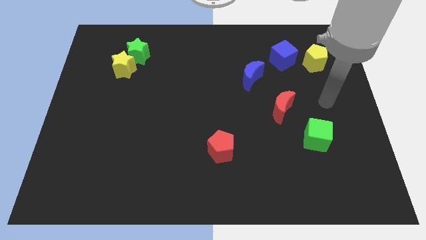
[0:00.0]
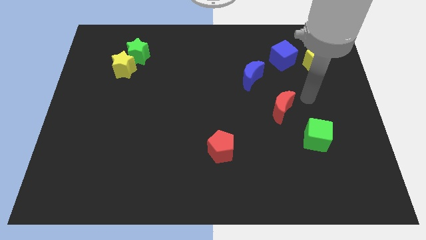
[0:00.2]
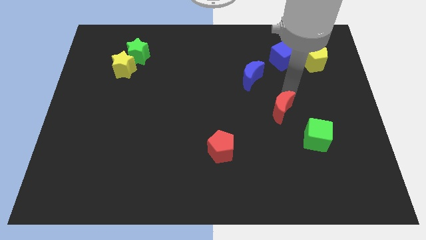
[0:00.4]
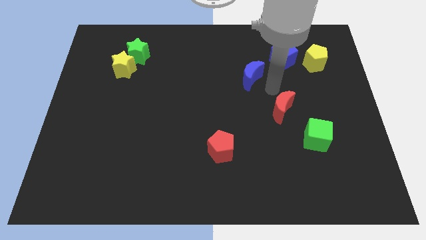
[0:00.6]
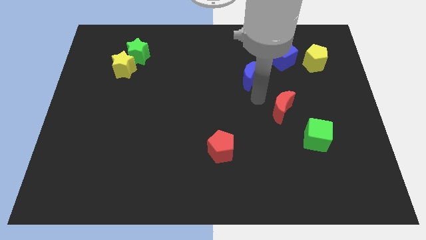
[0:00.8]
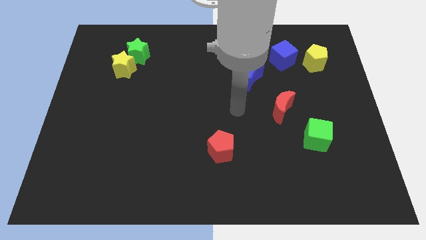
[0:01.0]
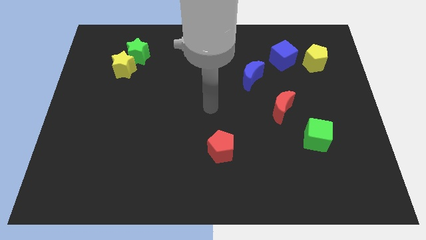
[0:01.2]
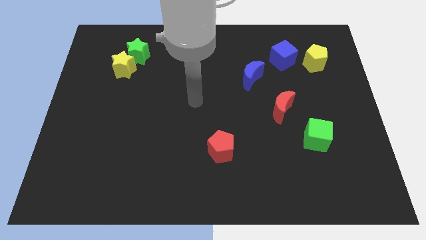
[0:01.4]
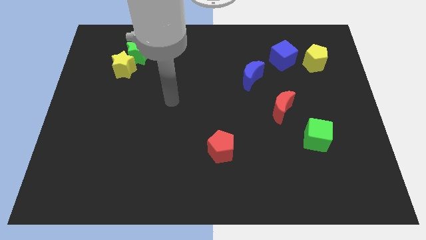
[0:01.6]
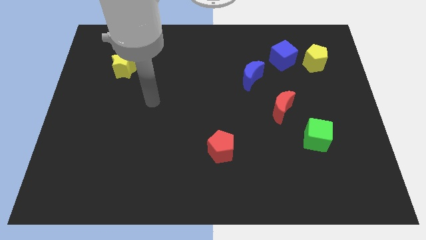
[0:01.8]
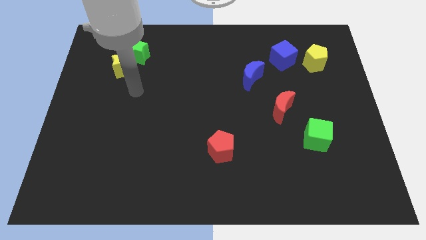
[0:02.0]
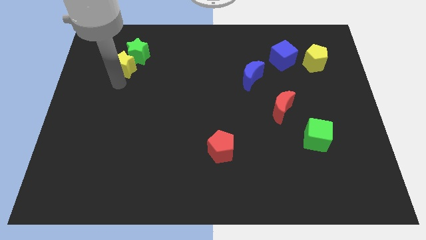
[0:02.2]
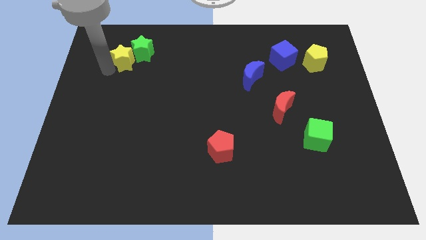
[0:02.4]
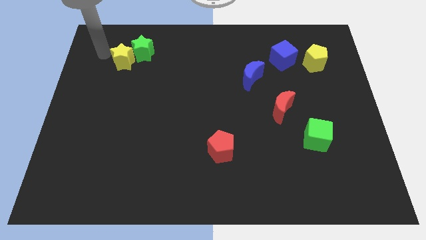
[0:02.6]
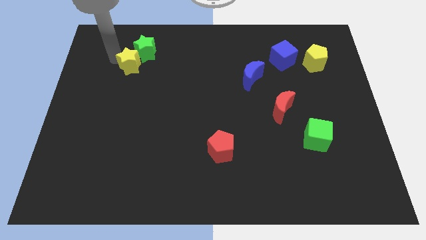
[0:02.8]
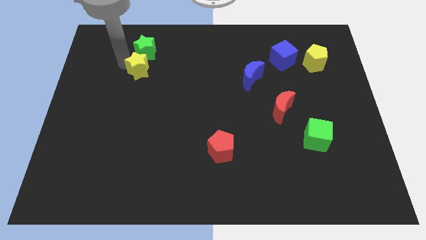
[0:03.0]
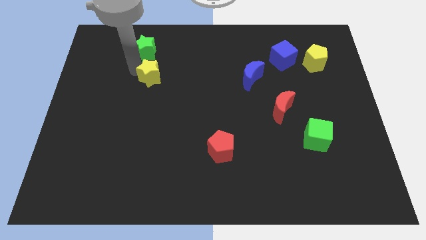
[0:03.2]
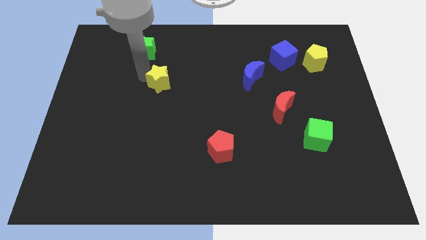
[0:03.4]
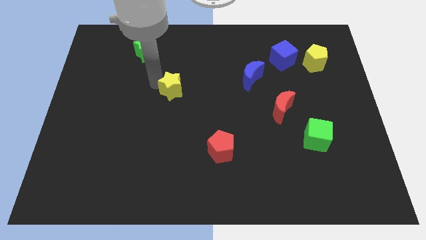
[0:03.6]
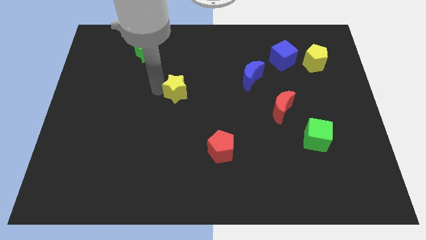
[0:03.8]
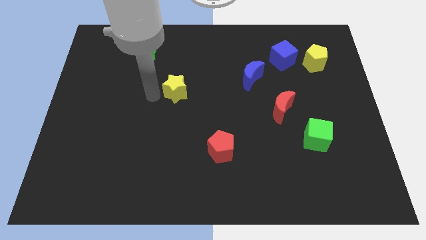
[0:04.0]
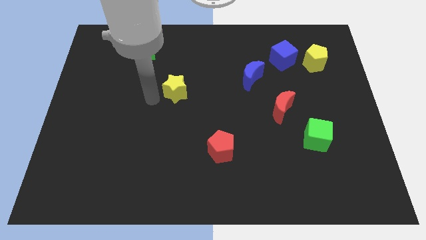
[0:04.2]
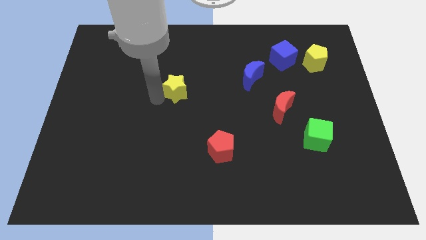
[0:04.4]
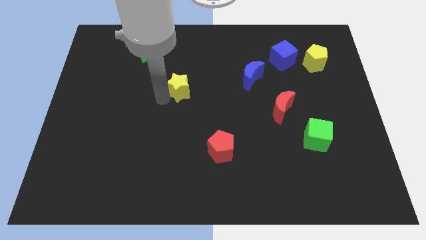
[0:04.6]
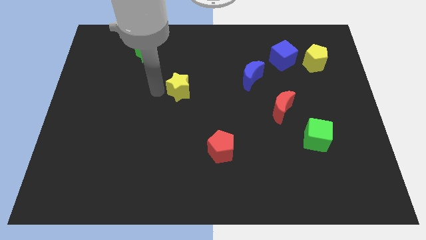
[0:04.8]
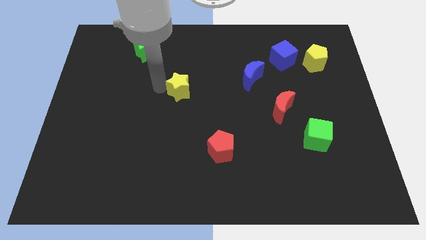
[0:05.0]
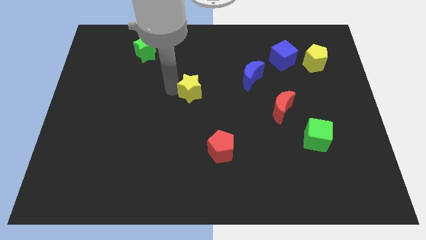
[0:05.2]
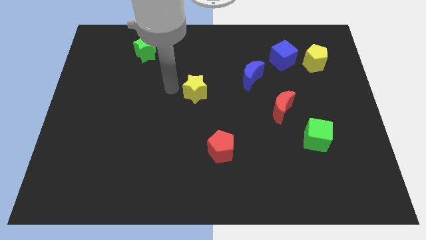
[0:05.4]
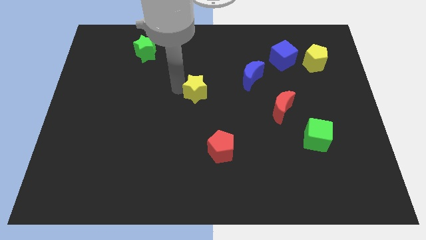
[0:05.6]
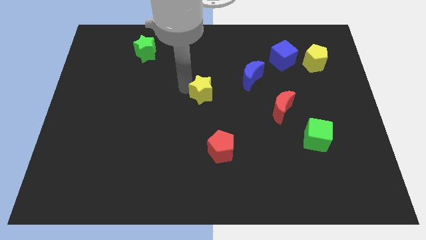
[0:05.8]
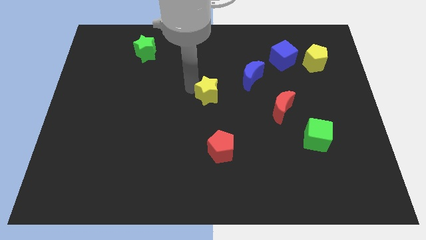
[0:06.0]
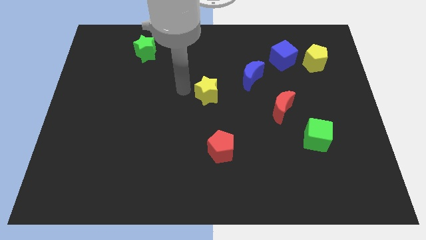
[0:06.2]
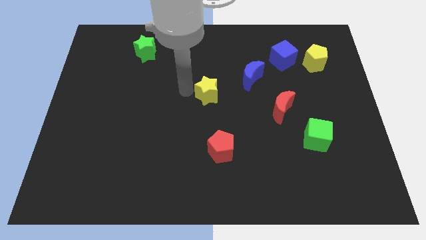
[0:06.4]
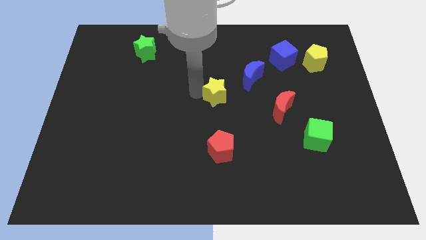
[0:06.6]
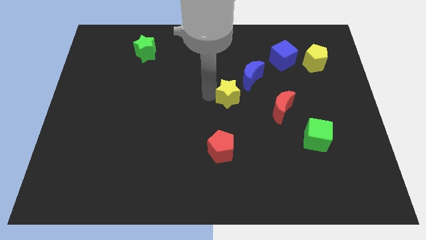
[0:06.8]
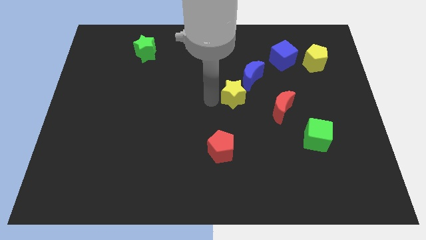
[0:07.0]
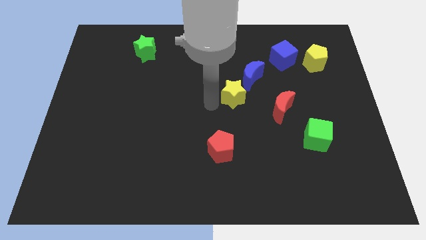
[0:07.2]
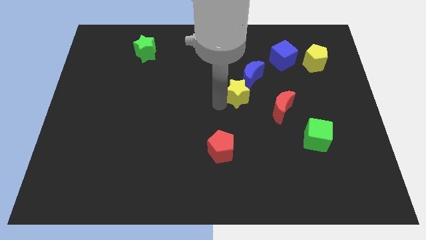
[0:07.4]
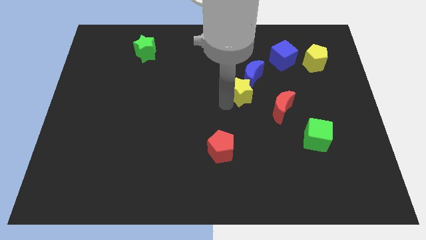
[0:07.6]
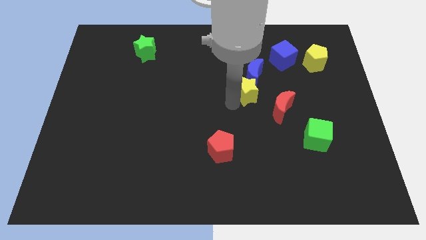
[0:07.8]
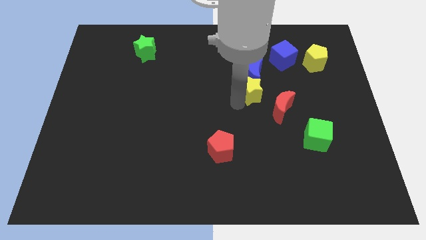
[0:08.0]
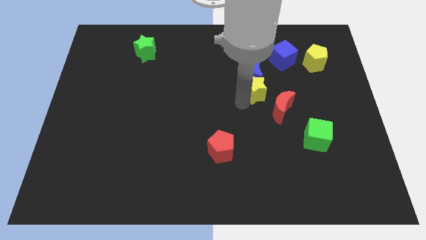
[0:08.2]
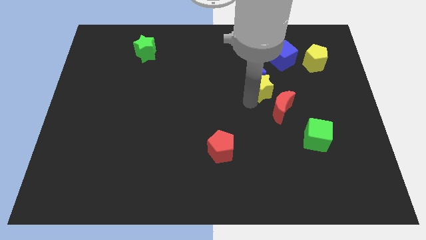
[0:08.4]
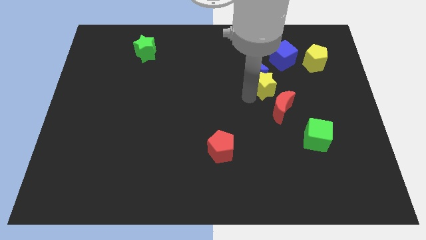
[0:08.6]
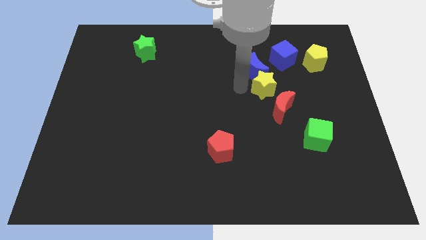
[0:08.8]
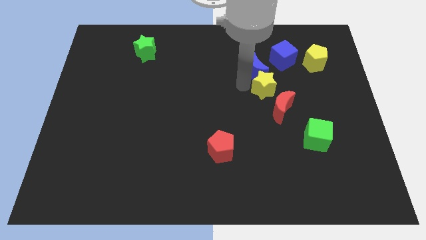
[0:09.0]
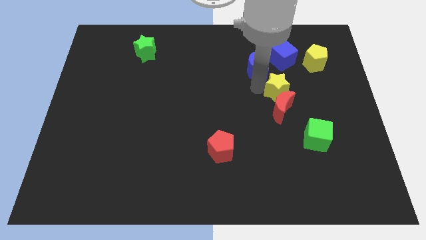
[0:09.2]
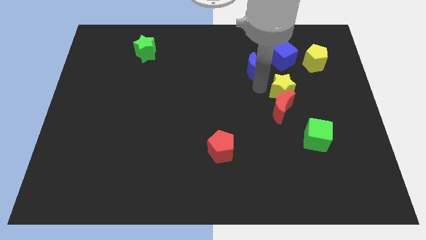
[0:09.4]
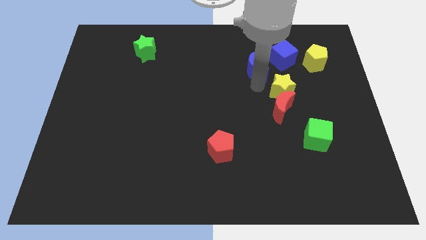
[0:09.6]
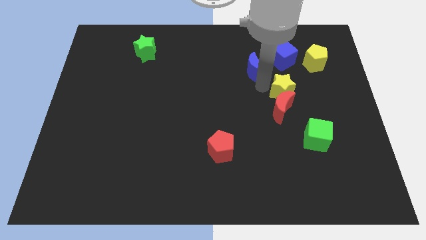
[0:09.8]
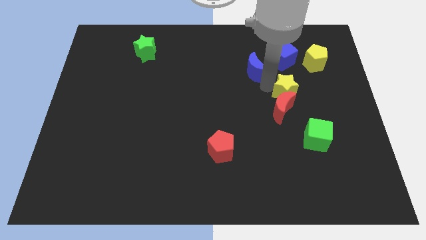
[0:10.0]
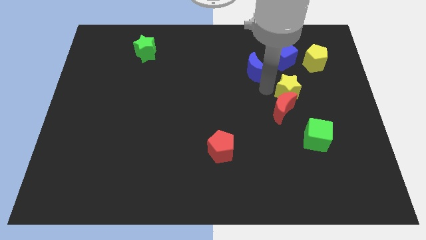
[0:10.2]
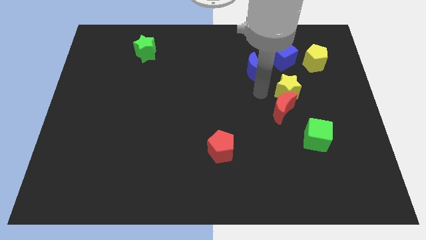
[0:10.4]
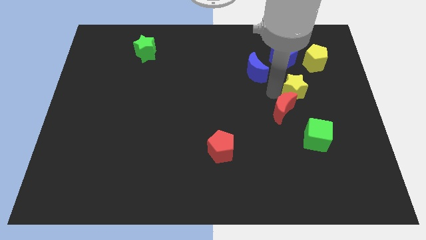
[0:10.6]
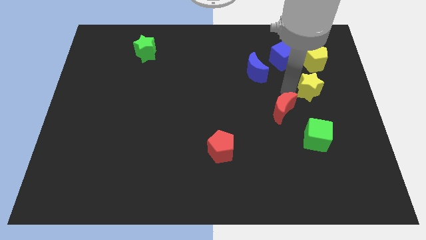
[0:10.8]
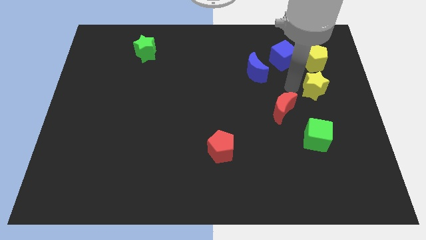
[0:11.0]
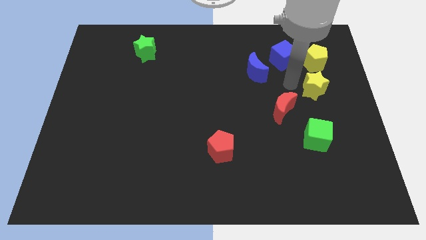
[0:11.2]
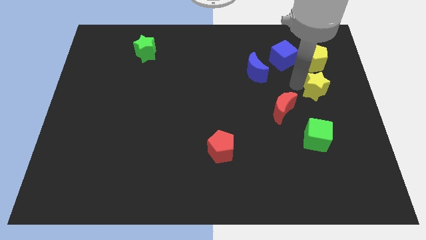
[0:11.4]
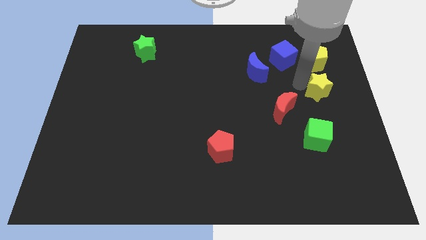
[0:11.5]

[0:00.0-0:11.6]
move the yellow star to the right side of the board

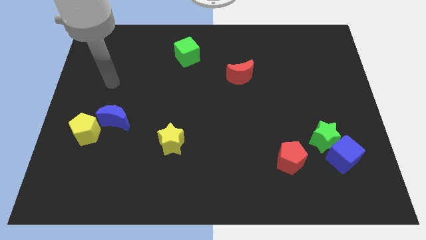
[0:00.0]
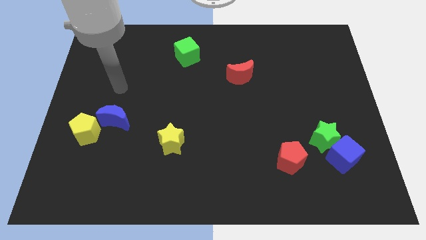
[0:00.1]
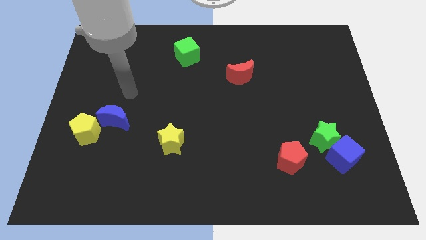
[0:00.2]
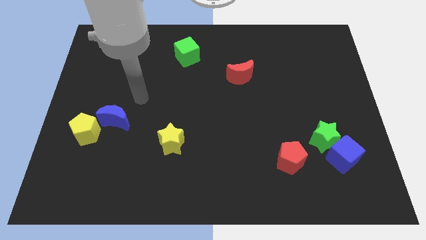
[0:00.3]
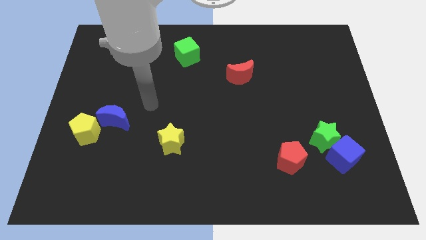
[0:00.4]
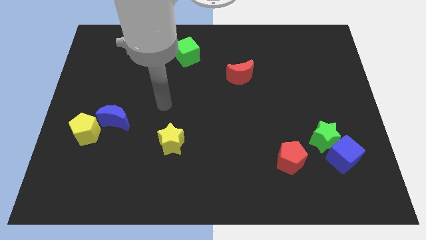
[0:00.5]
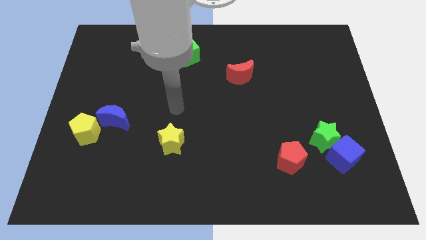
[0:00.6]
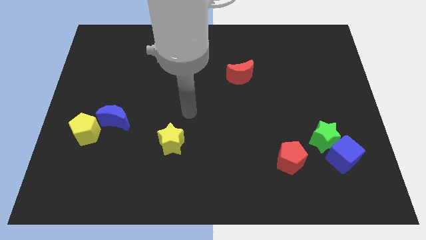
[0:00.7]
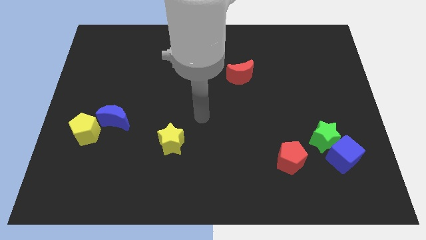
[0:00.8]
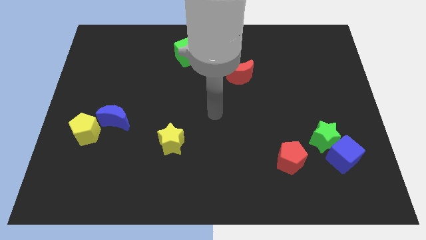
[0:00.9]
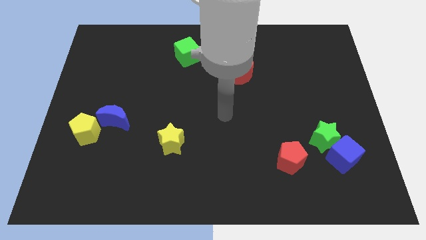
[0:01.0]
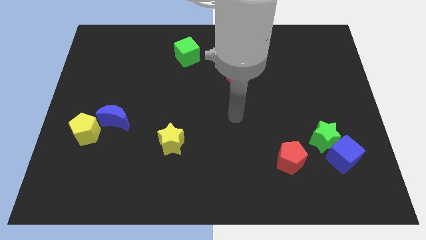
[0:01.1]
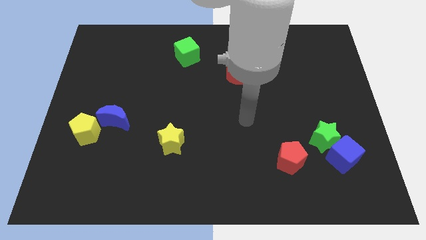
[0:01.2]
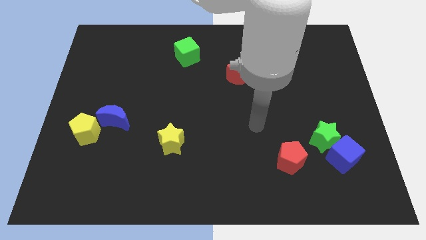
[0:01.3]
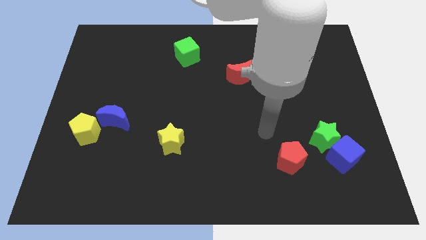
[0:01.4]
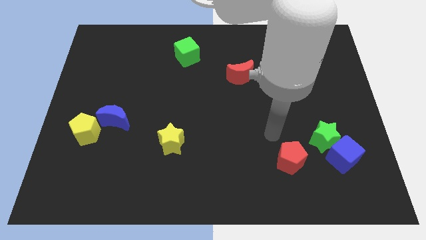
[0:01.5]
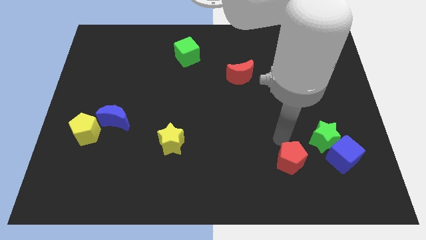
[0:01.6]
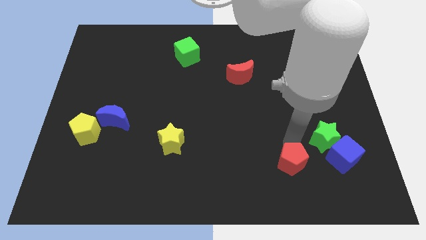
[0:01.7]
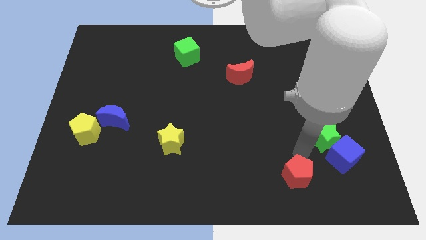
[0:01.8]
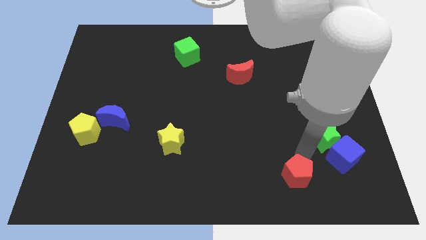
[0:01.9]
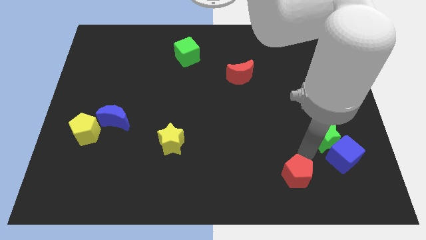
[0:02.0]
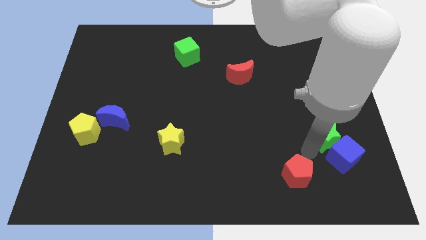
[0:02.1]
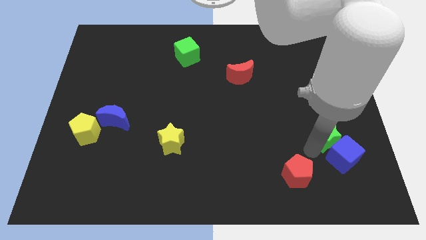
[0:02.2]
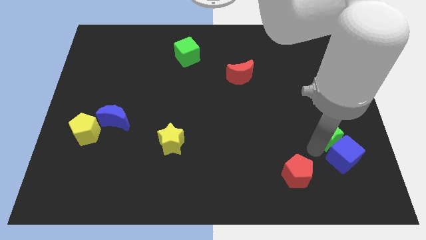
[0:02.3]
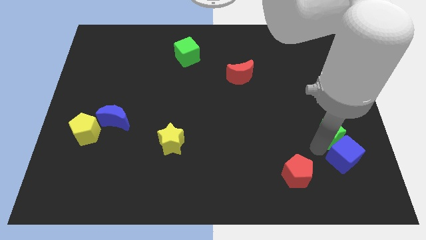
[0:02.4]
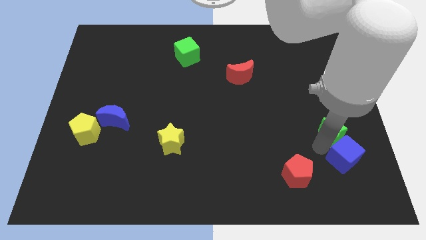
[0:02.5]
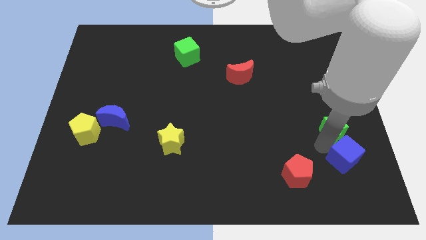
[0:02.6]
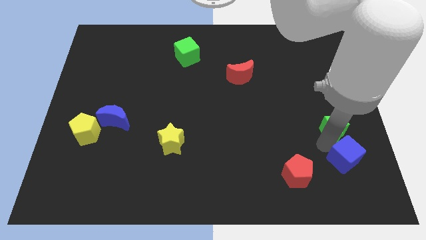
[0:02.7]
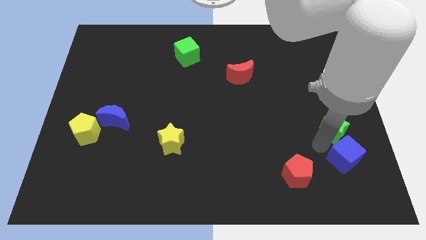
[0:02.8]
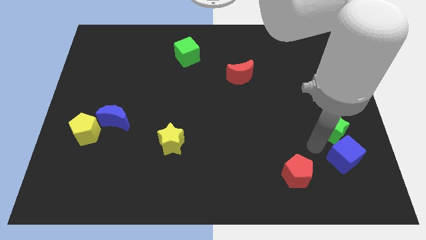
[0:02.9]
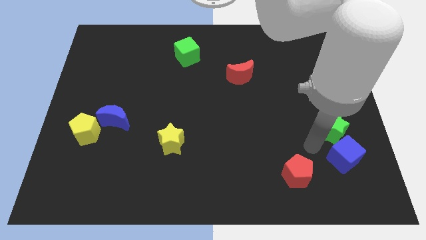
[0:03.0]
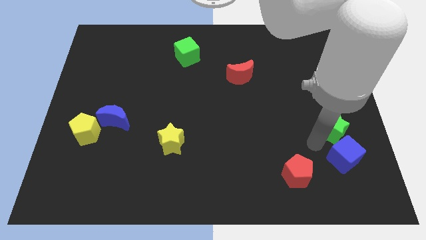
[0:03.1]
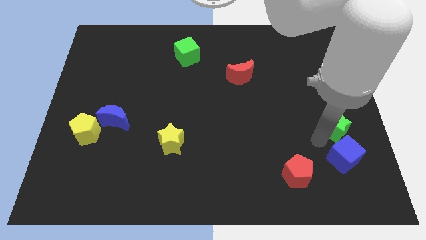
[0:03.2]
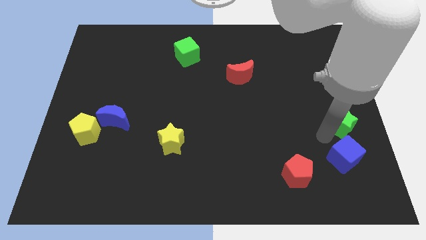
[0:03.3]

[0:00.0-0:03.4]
move the green star to the right side of the board
